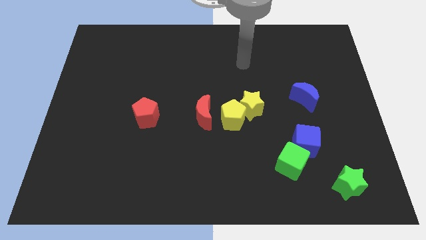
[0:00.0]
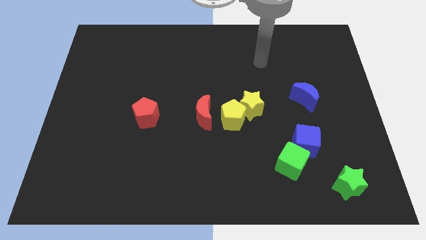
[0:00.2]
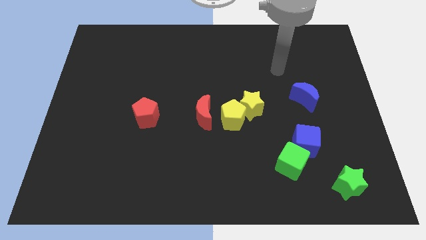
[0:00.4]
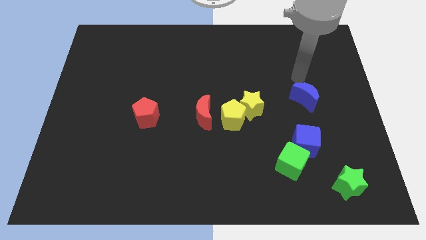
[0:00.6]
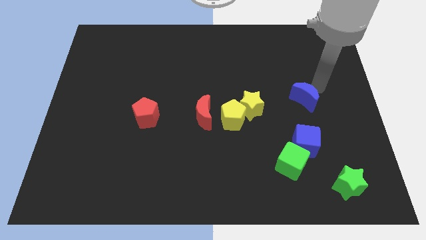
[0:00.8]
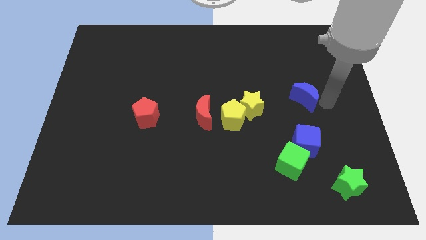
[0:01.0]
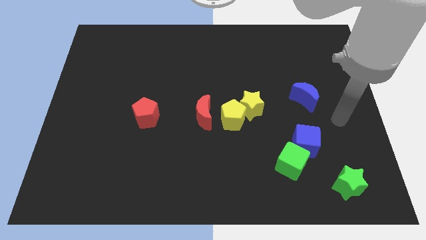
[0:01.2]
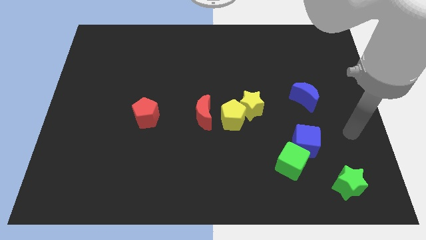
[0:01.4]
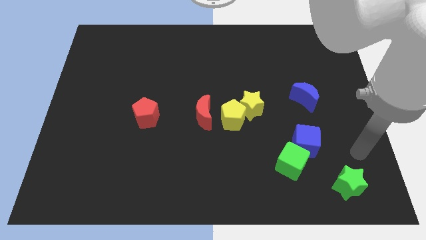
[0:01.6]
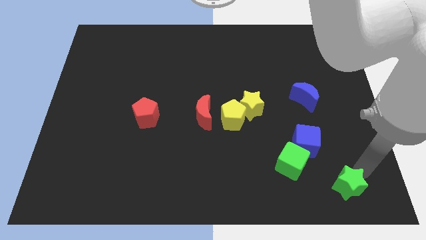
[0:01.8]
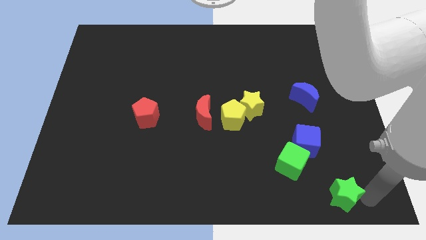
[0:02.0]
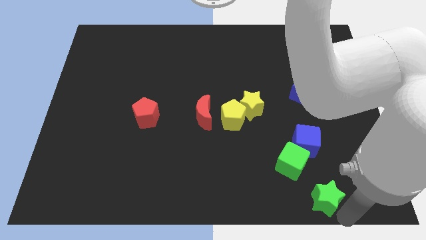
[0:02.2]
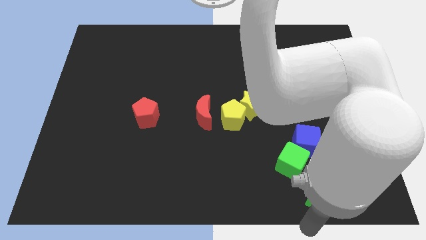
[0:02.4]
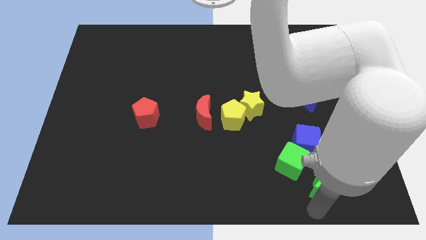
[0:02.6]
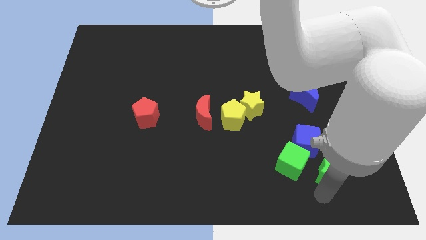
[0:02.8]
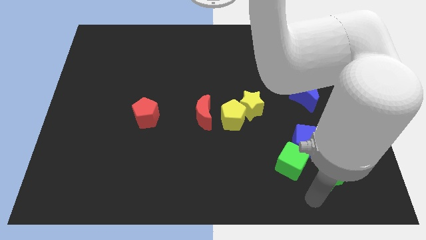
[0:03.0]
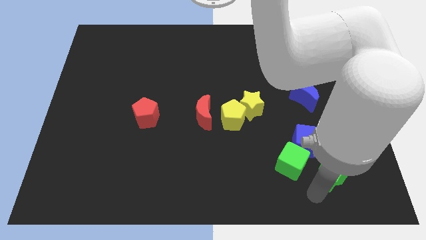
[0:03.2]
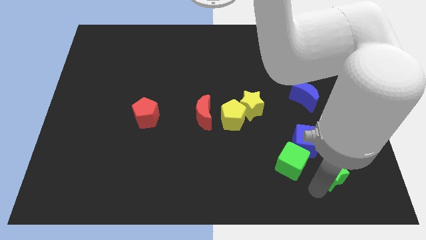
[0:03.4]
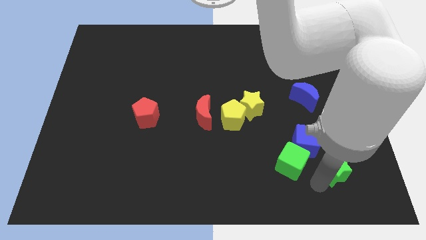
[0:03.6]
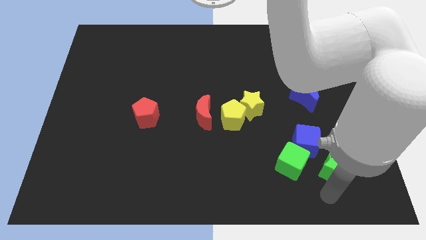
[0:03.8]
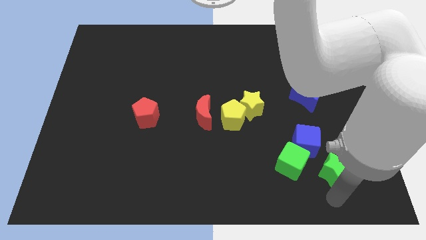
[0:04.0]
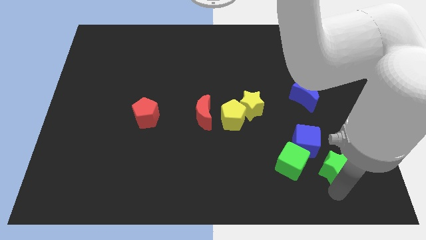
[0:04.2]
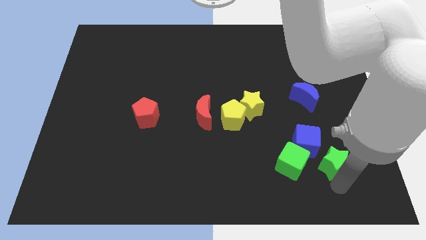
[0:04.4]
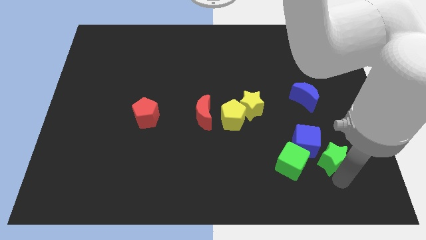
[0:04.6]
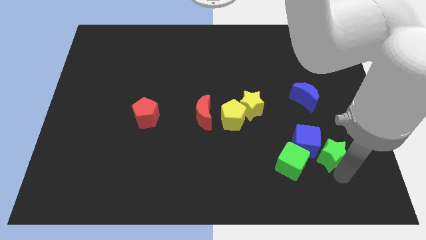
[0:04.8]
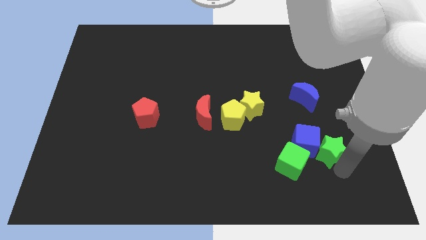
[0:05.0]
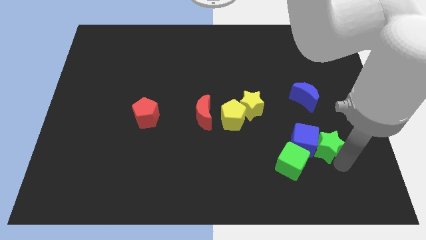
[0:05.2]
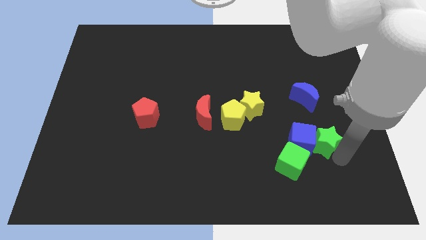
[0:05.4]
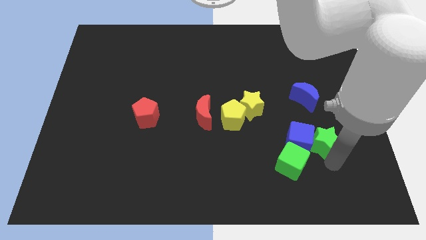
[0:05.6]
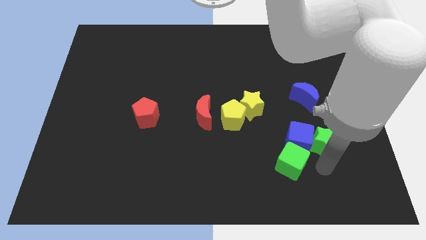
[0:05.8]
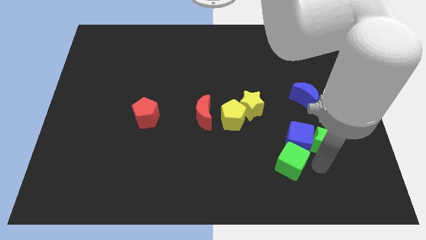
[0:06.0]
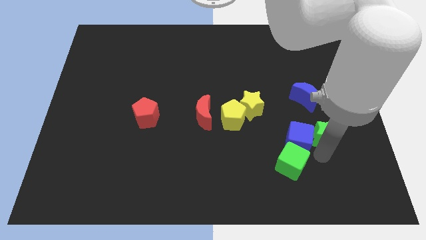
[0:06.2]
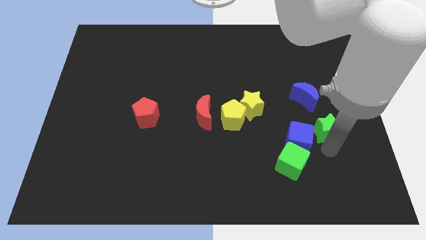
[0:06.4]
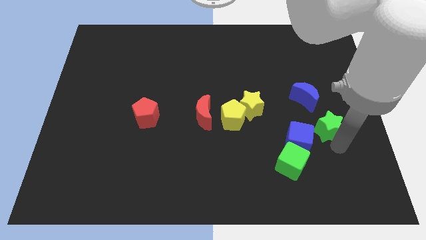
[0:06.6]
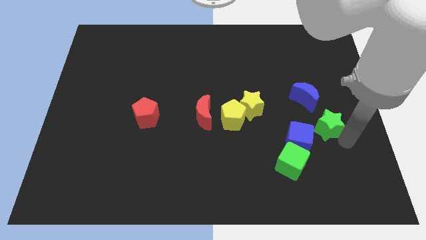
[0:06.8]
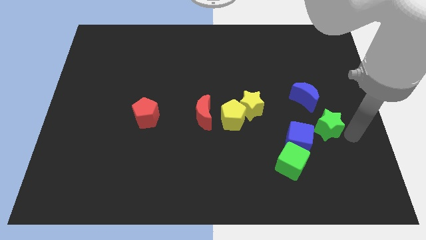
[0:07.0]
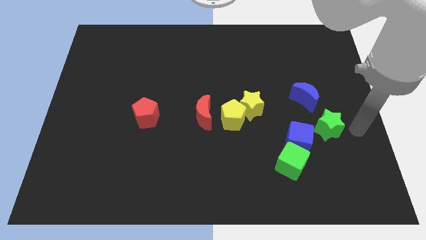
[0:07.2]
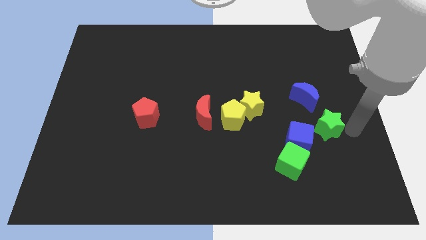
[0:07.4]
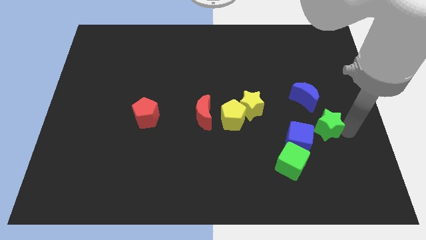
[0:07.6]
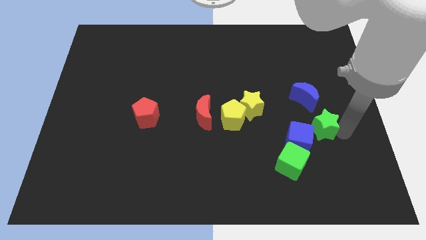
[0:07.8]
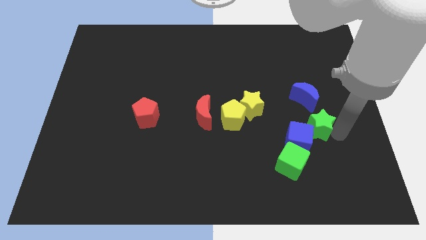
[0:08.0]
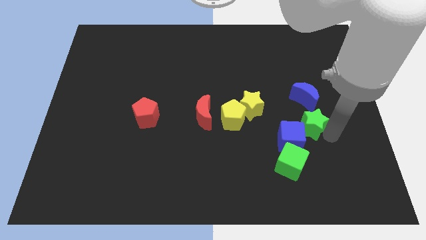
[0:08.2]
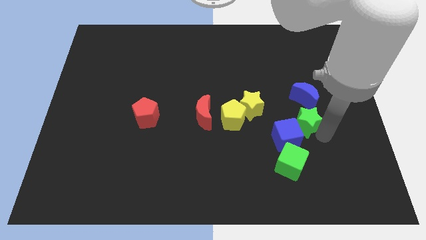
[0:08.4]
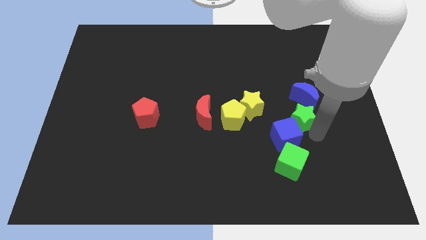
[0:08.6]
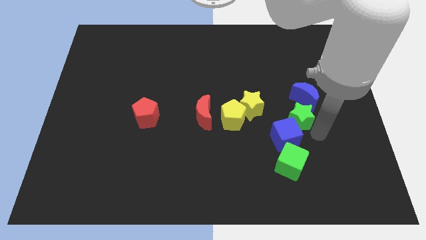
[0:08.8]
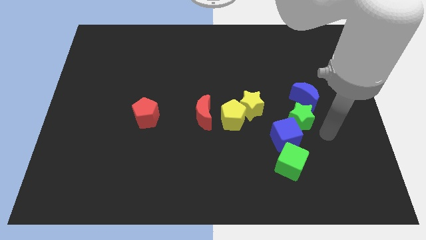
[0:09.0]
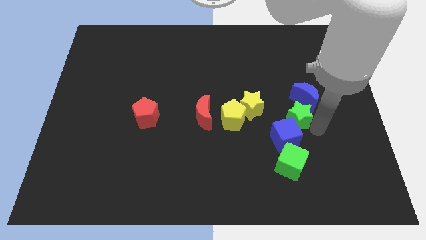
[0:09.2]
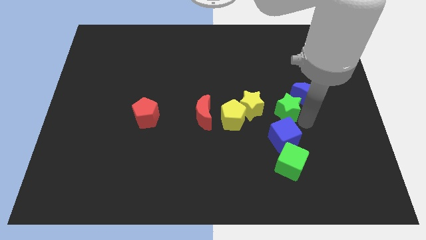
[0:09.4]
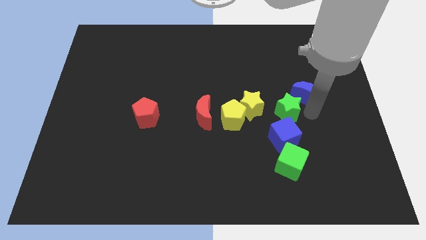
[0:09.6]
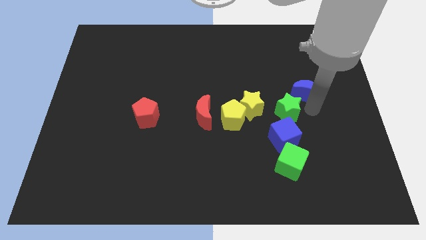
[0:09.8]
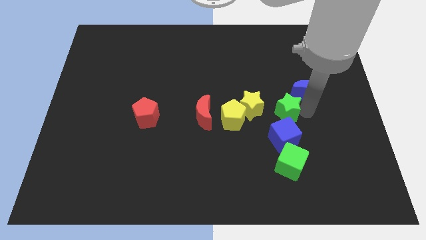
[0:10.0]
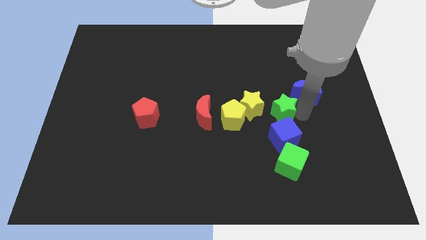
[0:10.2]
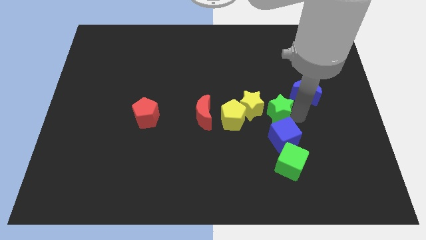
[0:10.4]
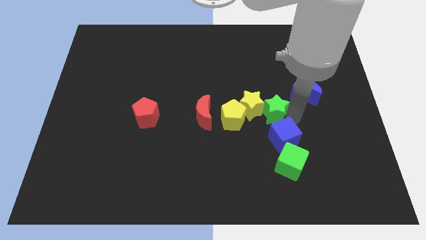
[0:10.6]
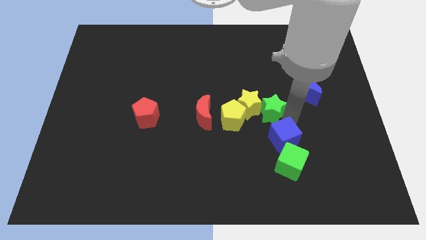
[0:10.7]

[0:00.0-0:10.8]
slide the green star to the right side of the red moon

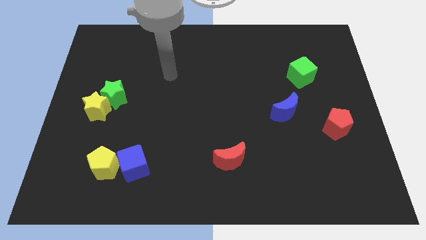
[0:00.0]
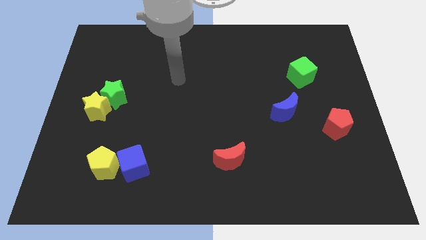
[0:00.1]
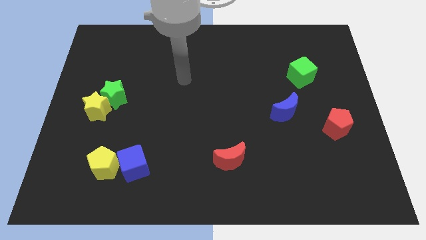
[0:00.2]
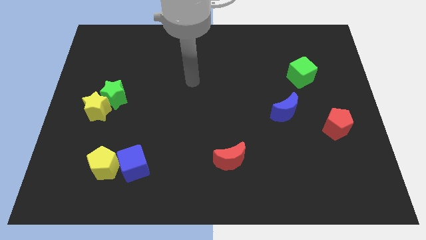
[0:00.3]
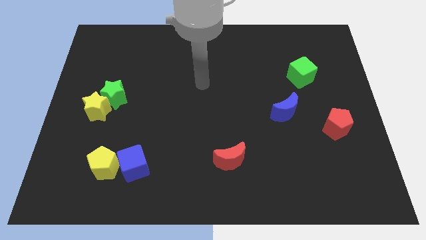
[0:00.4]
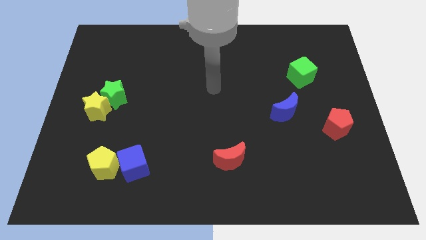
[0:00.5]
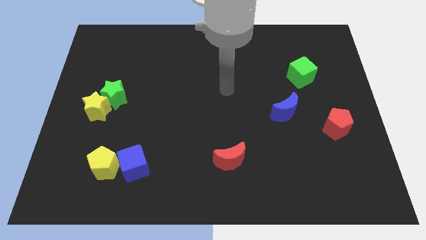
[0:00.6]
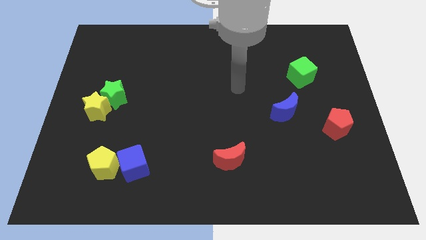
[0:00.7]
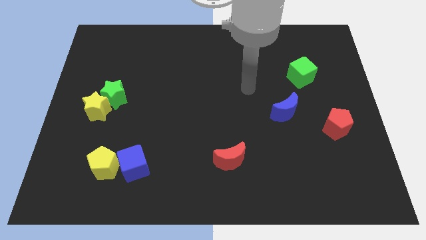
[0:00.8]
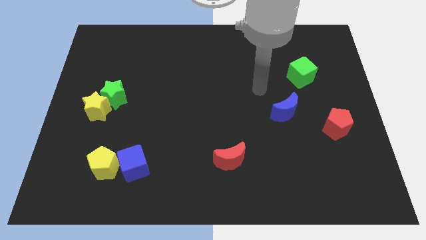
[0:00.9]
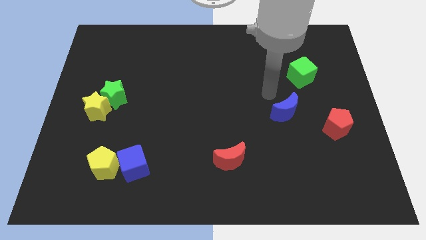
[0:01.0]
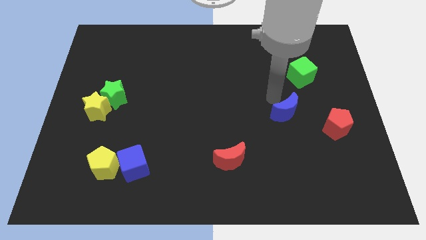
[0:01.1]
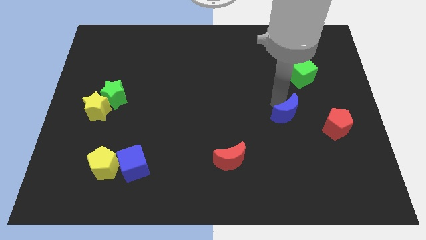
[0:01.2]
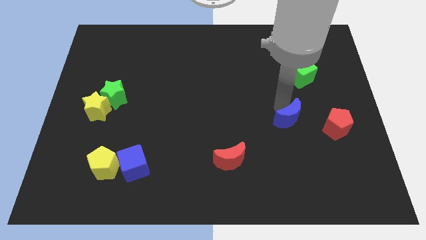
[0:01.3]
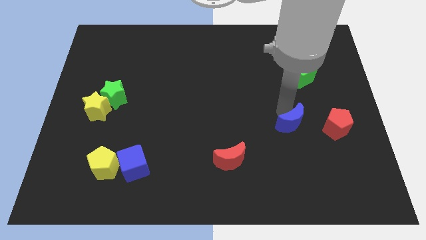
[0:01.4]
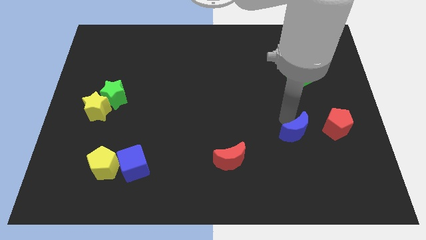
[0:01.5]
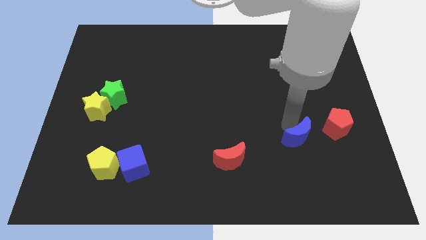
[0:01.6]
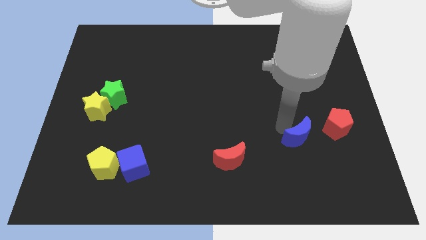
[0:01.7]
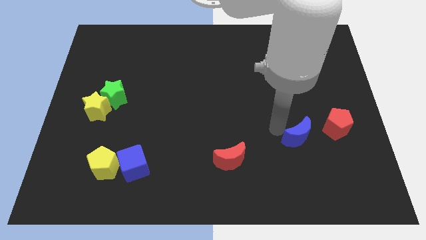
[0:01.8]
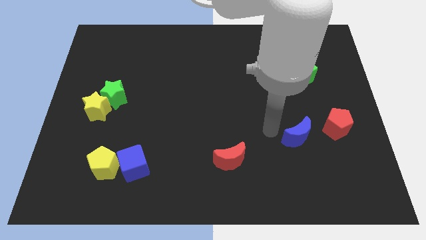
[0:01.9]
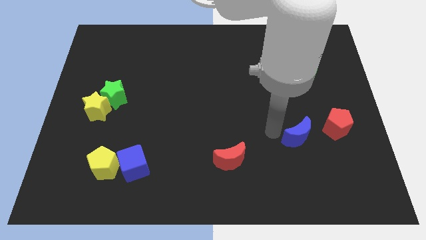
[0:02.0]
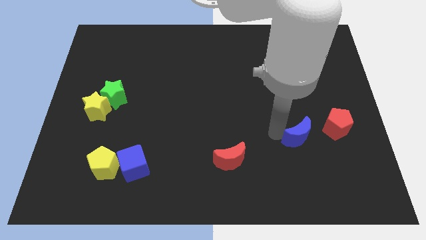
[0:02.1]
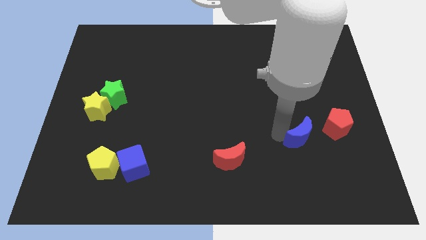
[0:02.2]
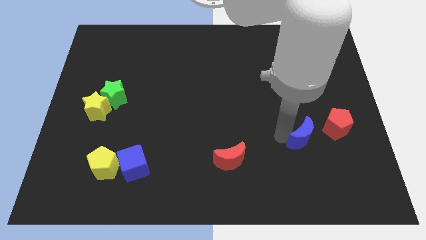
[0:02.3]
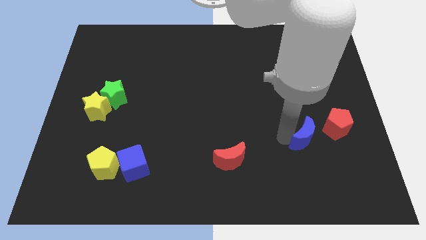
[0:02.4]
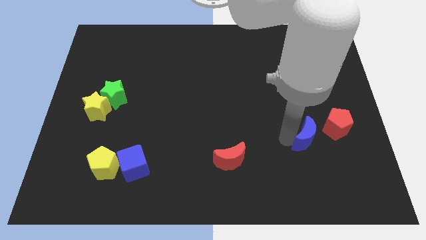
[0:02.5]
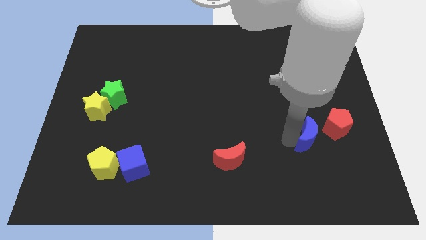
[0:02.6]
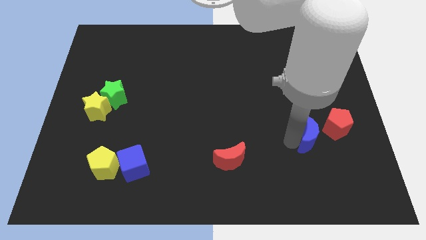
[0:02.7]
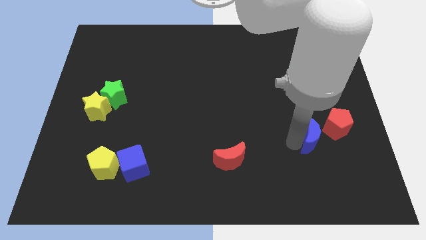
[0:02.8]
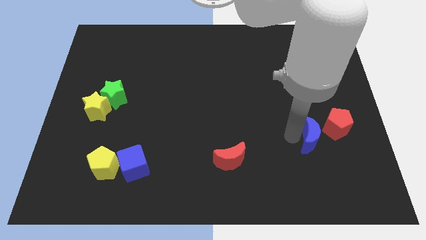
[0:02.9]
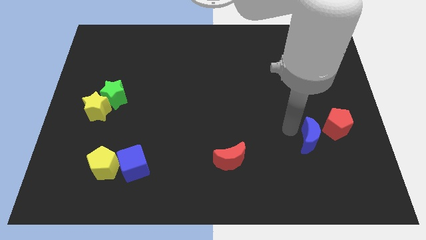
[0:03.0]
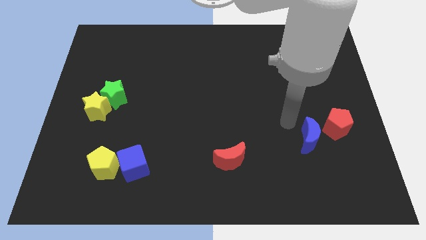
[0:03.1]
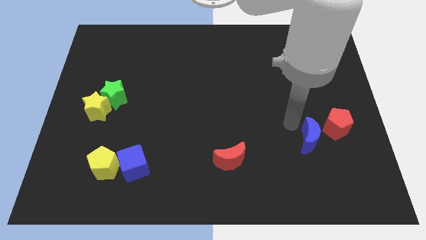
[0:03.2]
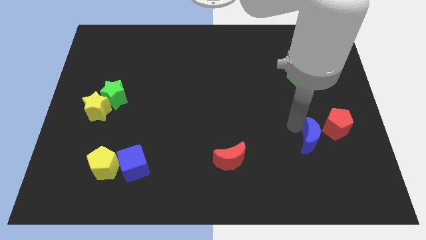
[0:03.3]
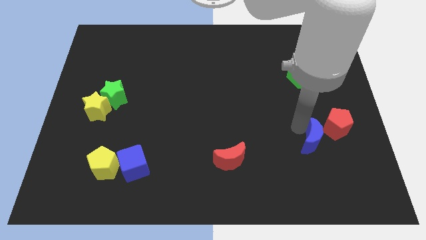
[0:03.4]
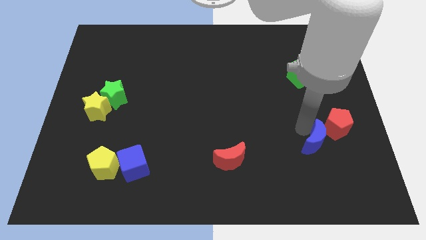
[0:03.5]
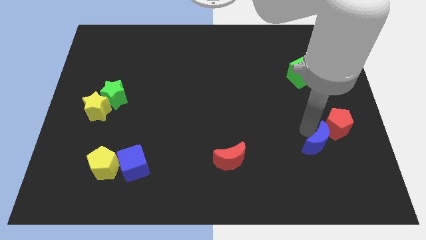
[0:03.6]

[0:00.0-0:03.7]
put the blue moon to the bottom side of the red pentagon
